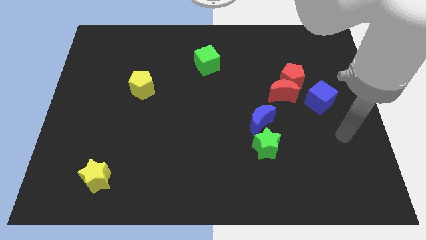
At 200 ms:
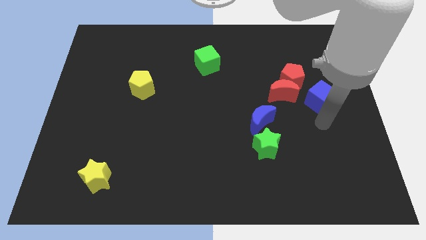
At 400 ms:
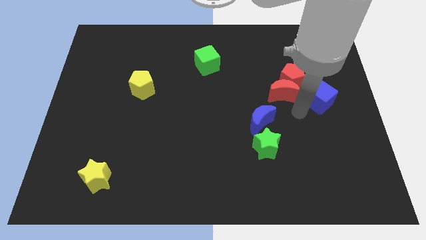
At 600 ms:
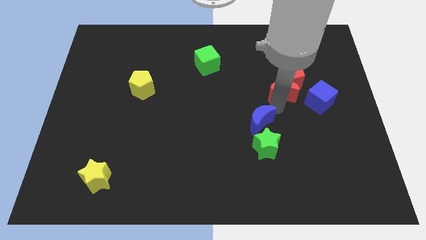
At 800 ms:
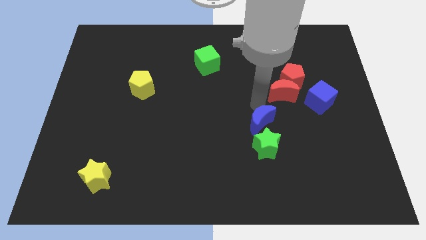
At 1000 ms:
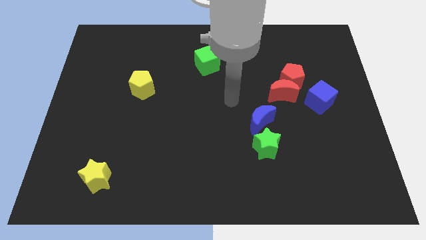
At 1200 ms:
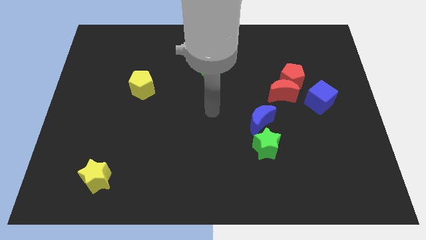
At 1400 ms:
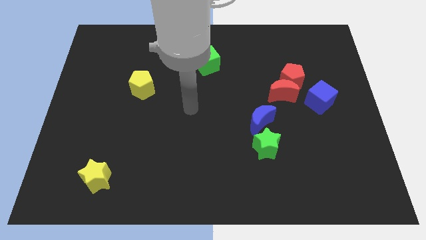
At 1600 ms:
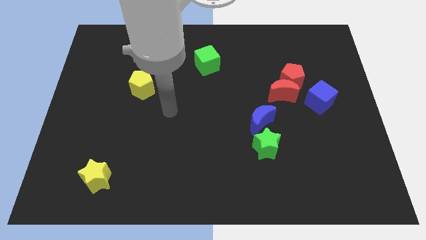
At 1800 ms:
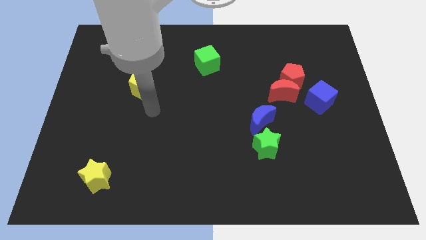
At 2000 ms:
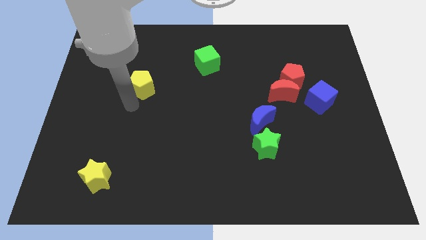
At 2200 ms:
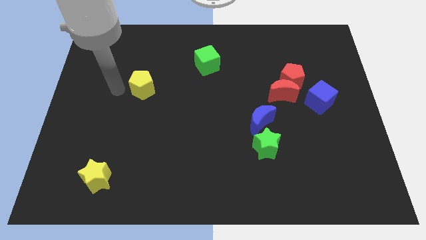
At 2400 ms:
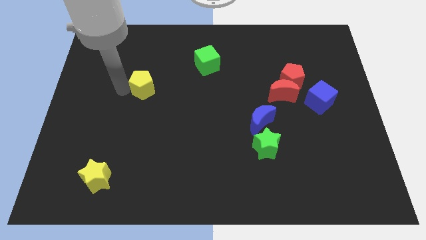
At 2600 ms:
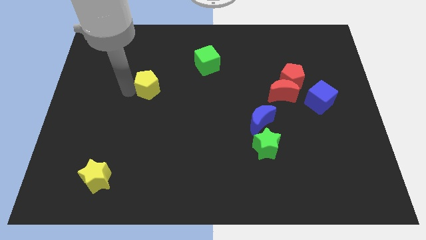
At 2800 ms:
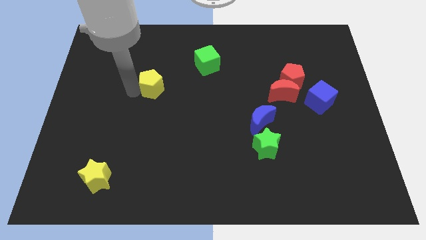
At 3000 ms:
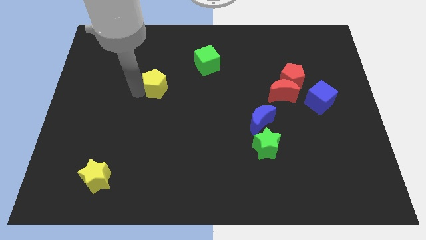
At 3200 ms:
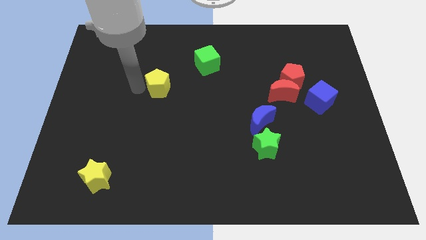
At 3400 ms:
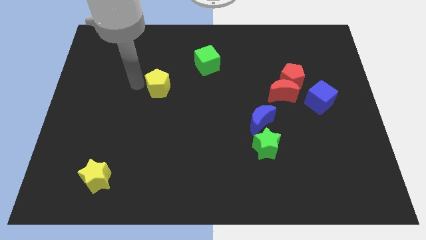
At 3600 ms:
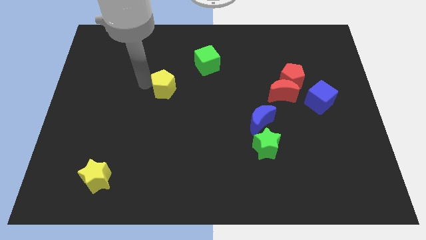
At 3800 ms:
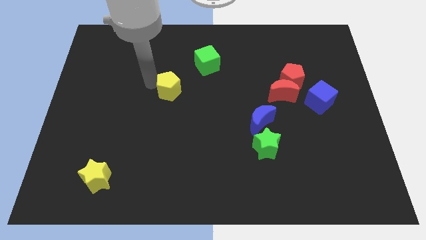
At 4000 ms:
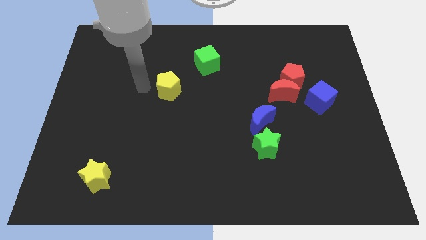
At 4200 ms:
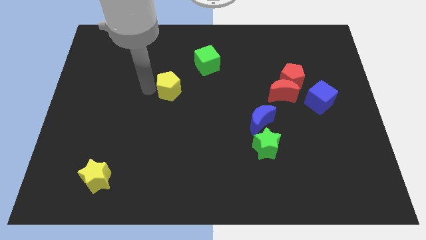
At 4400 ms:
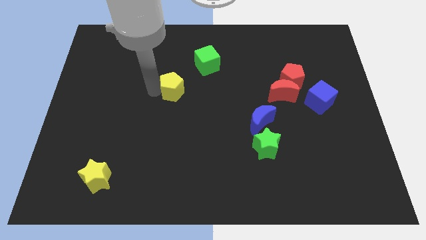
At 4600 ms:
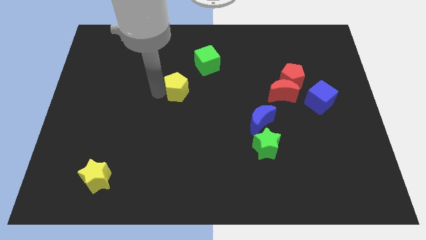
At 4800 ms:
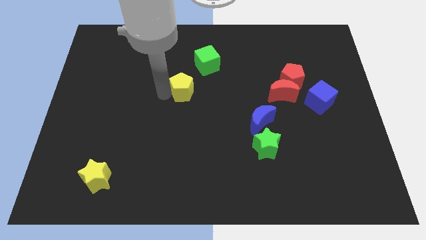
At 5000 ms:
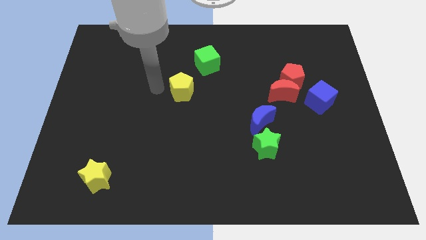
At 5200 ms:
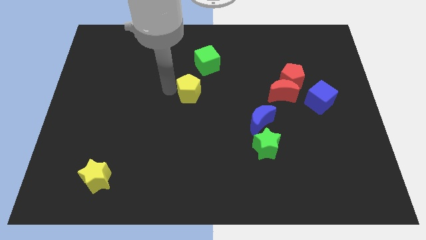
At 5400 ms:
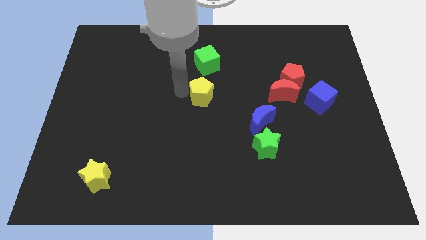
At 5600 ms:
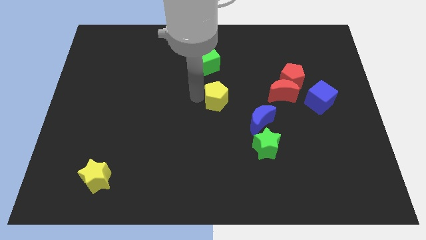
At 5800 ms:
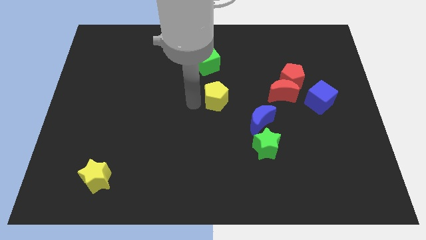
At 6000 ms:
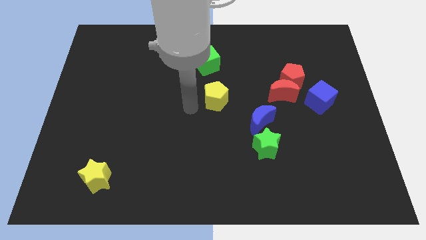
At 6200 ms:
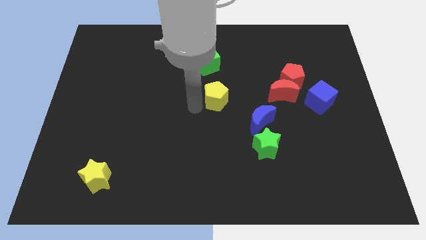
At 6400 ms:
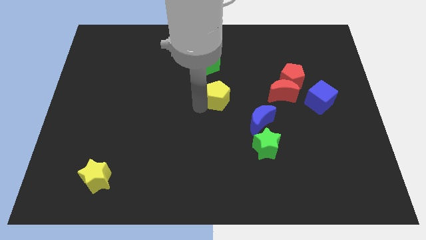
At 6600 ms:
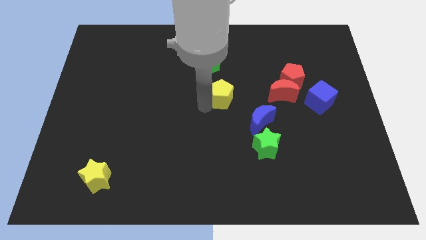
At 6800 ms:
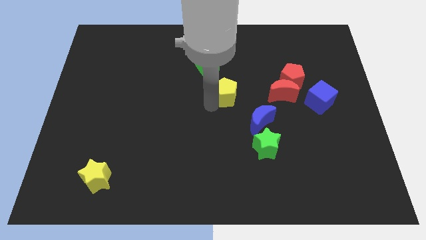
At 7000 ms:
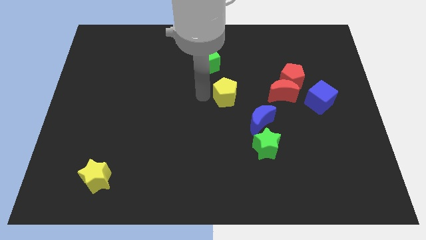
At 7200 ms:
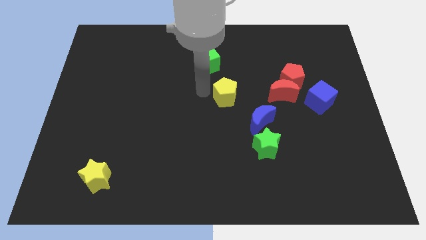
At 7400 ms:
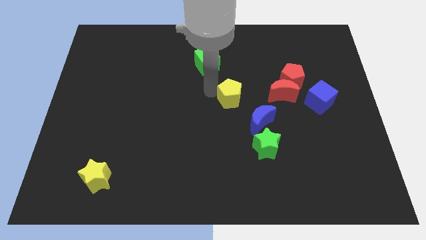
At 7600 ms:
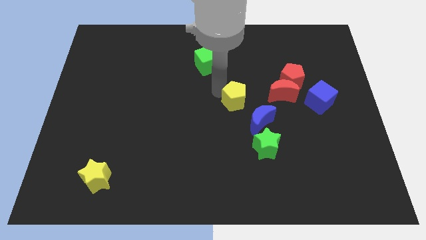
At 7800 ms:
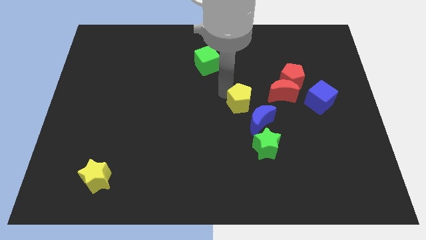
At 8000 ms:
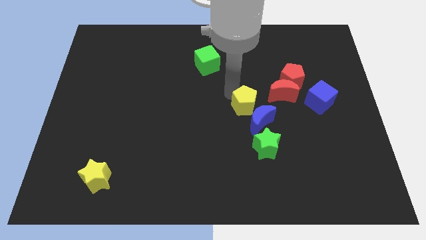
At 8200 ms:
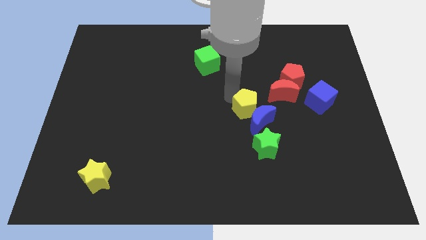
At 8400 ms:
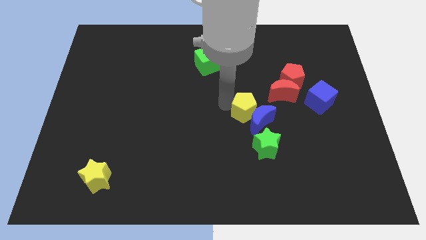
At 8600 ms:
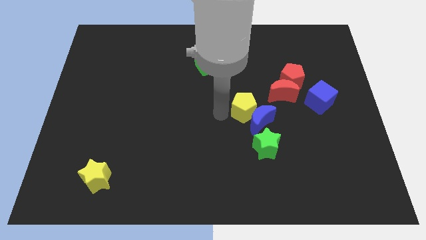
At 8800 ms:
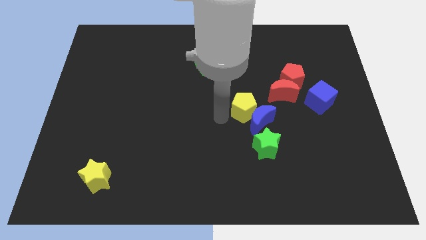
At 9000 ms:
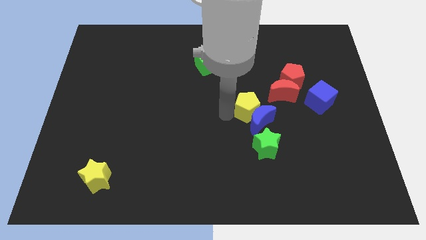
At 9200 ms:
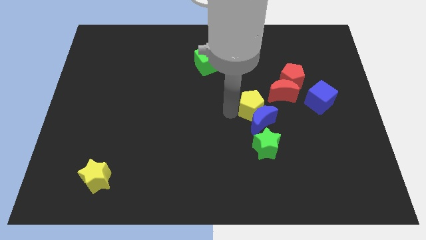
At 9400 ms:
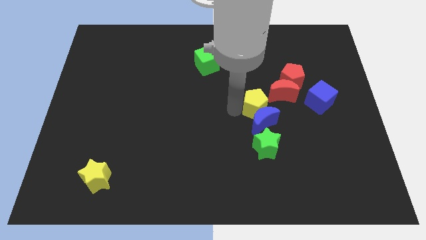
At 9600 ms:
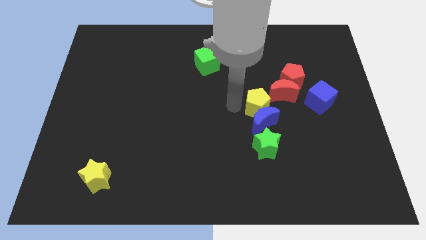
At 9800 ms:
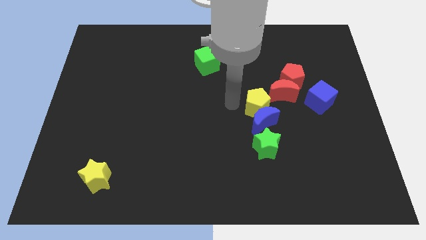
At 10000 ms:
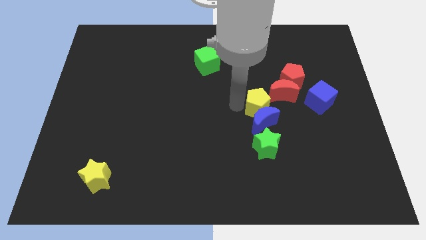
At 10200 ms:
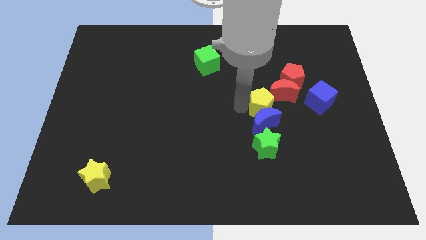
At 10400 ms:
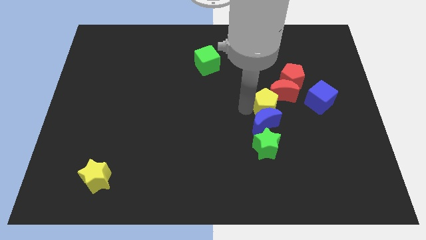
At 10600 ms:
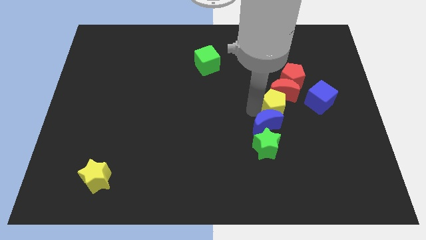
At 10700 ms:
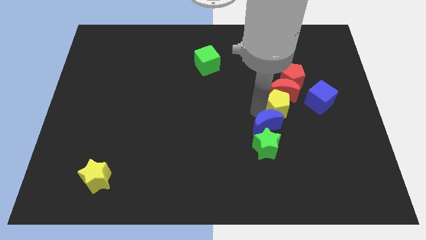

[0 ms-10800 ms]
put the yellow pentagon diagonally down and to the right of the red moon

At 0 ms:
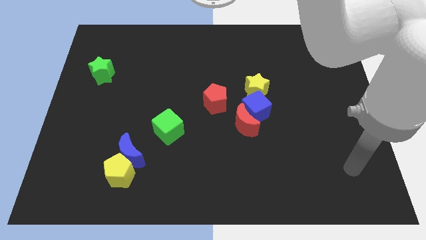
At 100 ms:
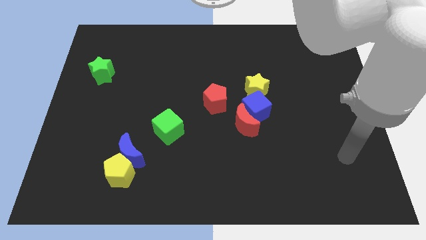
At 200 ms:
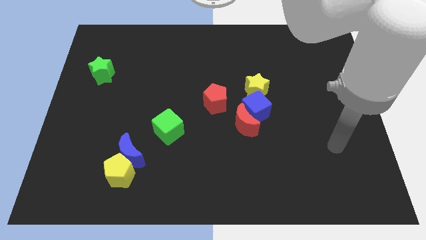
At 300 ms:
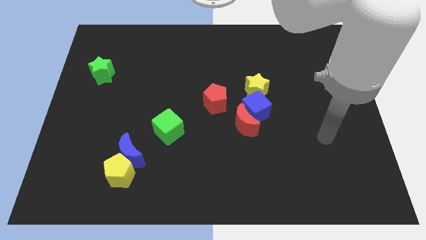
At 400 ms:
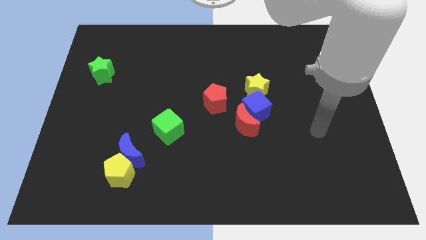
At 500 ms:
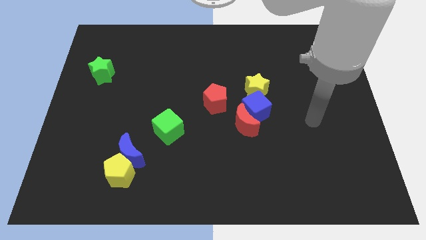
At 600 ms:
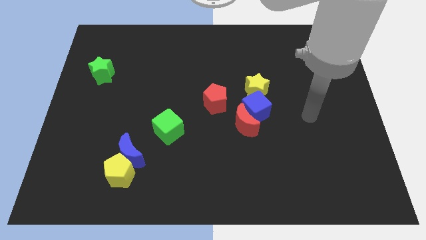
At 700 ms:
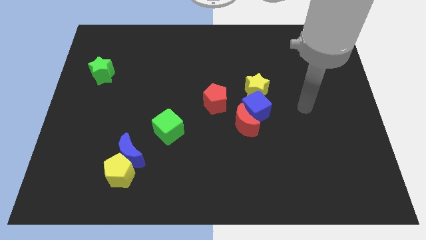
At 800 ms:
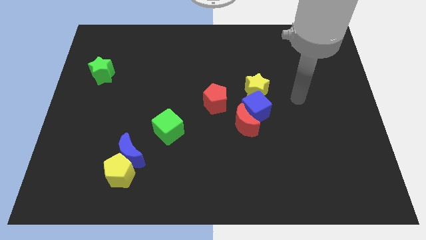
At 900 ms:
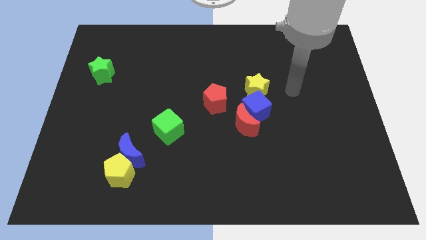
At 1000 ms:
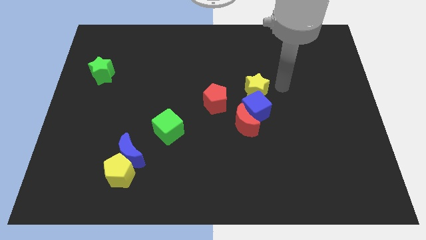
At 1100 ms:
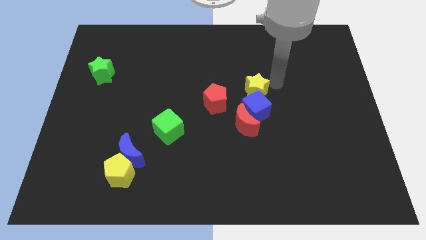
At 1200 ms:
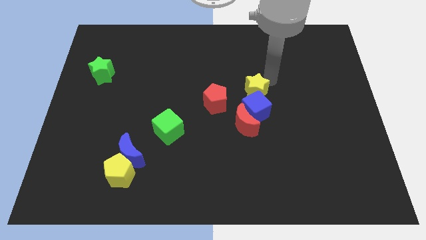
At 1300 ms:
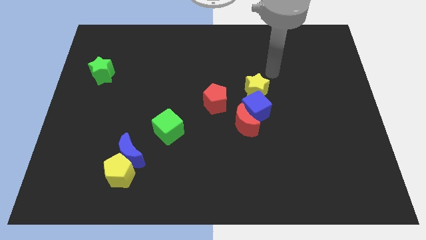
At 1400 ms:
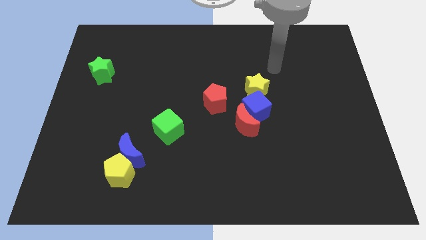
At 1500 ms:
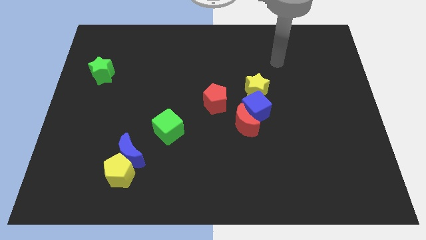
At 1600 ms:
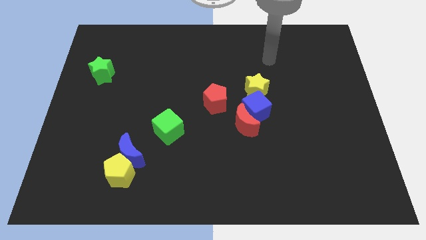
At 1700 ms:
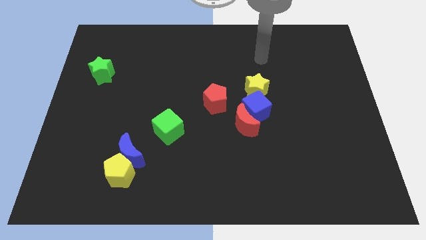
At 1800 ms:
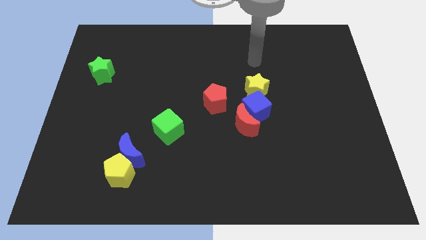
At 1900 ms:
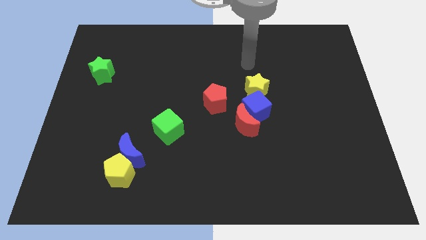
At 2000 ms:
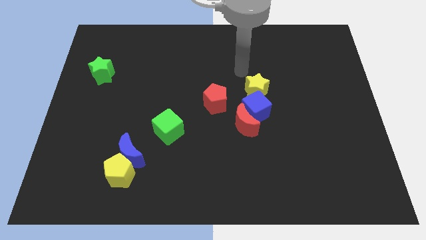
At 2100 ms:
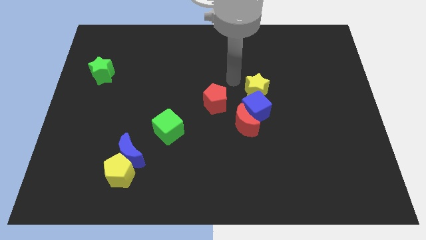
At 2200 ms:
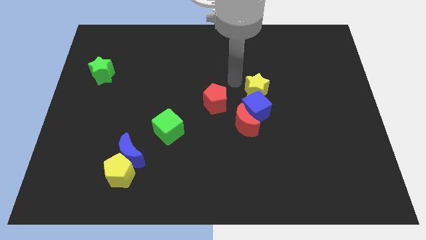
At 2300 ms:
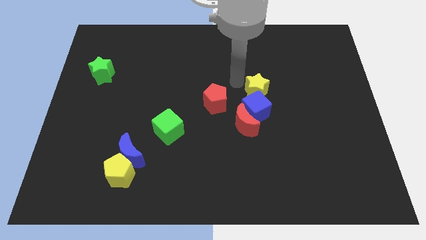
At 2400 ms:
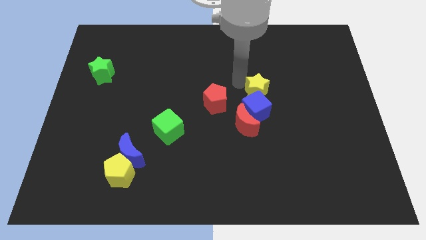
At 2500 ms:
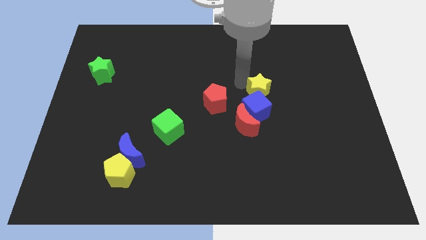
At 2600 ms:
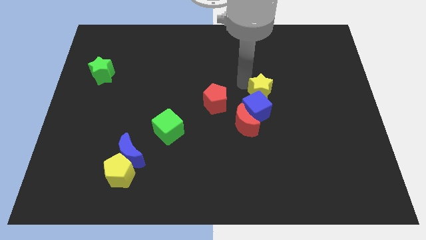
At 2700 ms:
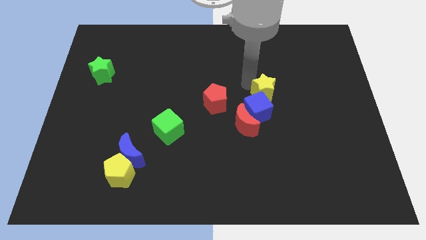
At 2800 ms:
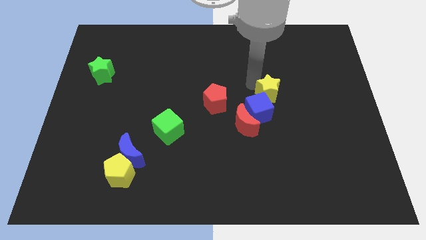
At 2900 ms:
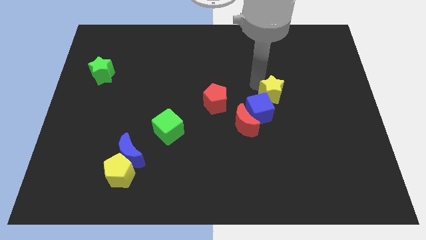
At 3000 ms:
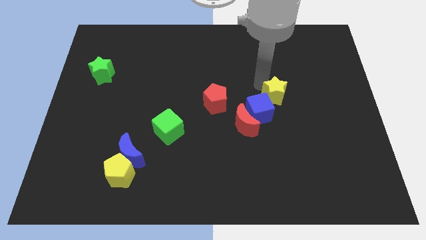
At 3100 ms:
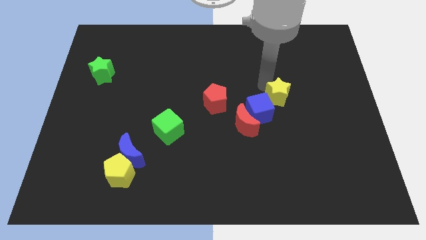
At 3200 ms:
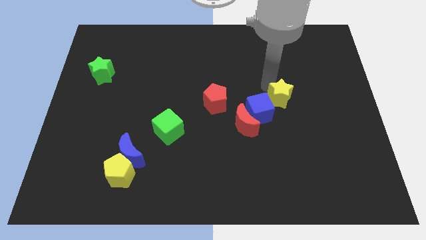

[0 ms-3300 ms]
move the yellow star just right of the blue cube
